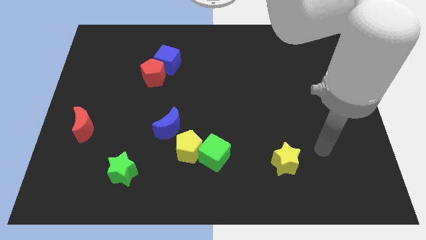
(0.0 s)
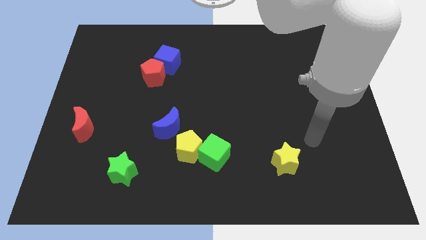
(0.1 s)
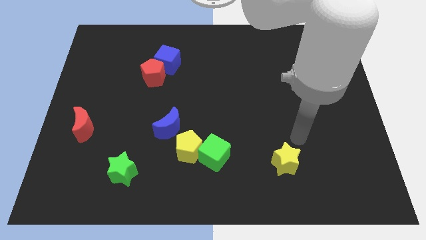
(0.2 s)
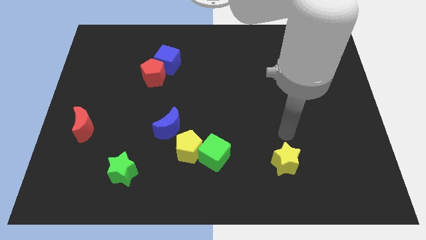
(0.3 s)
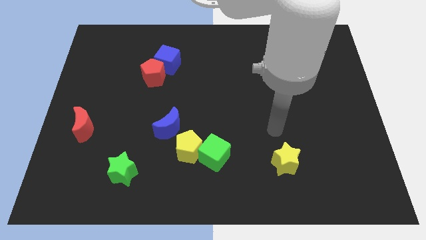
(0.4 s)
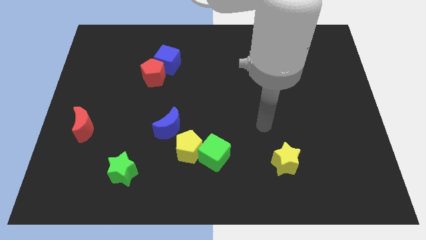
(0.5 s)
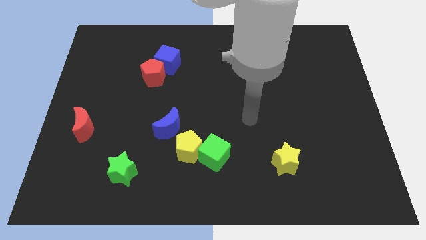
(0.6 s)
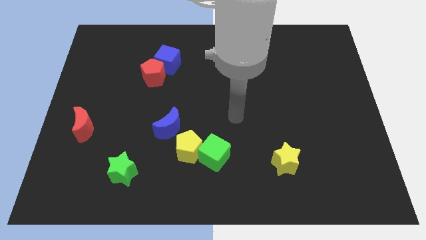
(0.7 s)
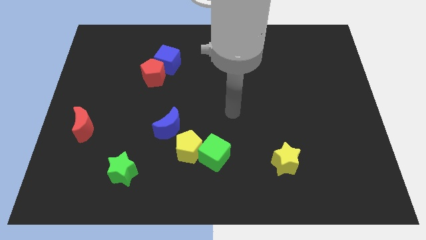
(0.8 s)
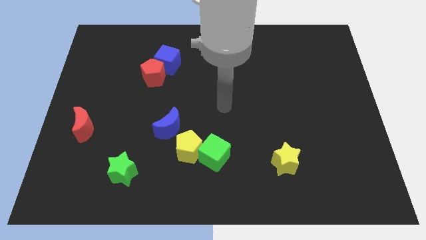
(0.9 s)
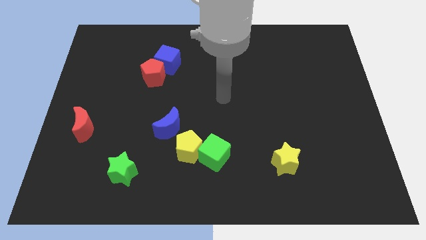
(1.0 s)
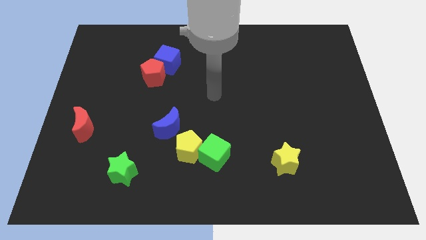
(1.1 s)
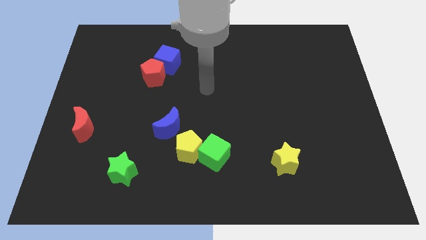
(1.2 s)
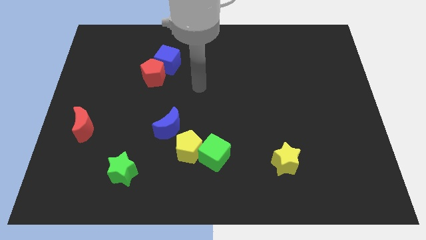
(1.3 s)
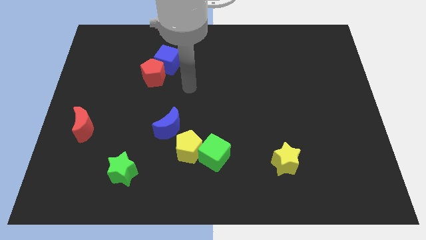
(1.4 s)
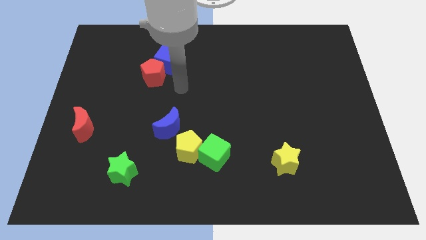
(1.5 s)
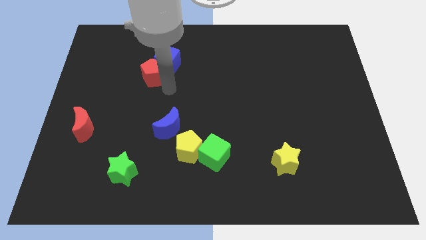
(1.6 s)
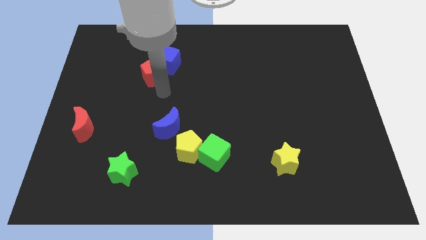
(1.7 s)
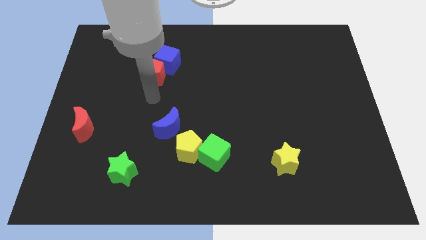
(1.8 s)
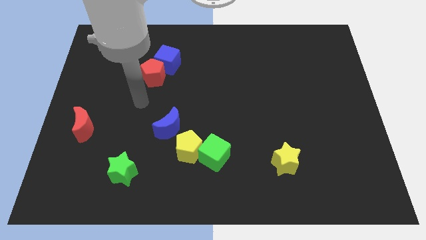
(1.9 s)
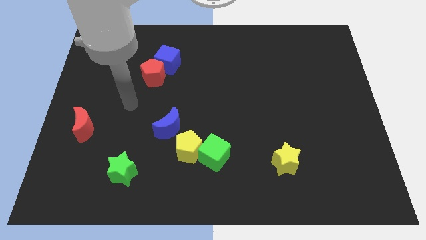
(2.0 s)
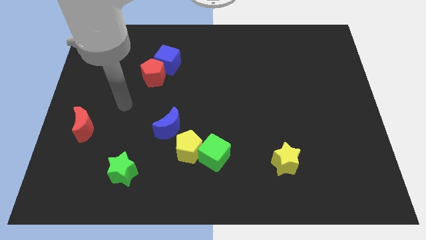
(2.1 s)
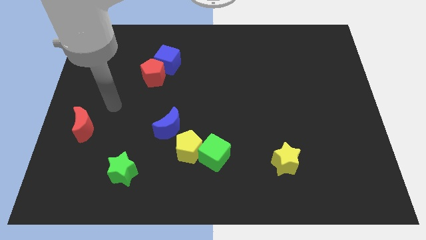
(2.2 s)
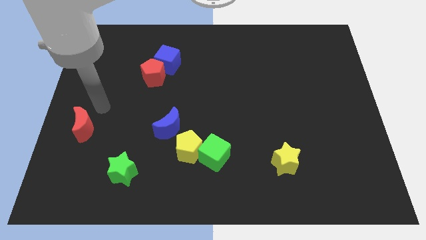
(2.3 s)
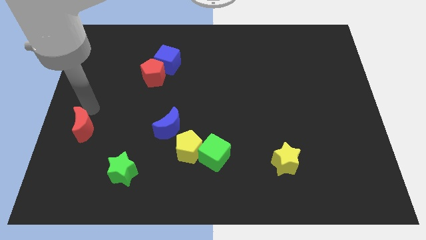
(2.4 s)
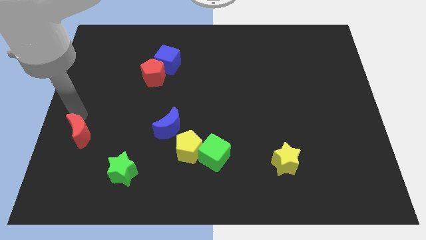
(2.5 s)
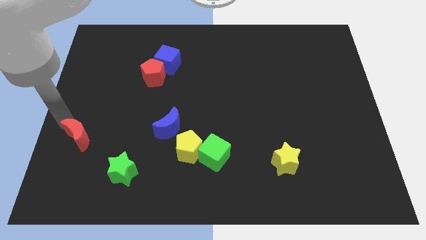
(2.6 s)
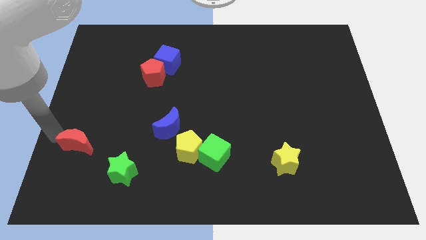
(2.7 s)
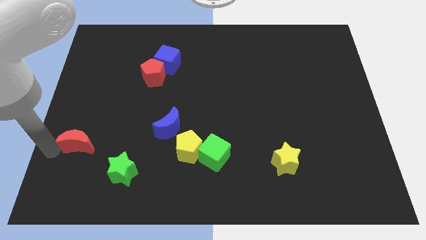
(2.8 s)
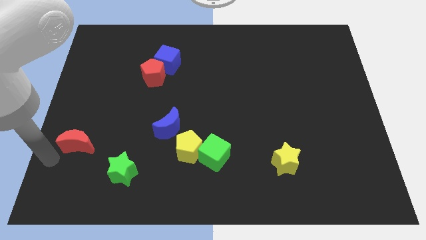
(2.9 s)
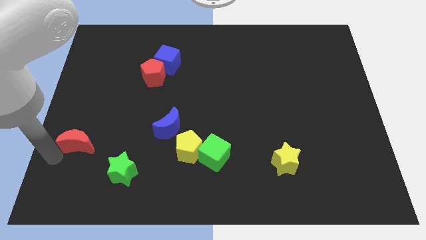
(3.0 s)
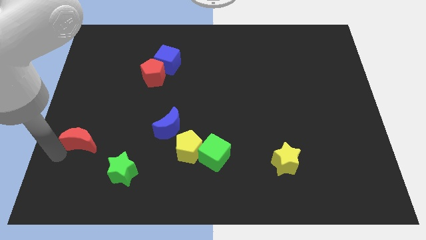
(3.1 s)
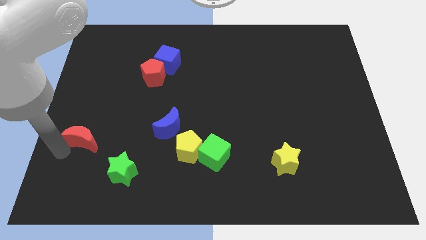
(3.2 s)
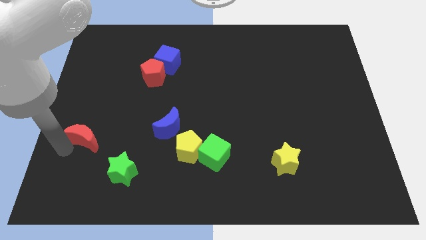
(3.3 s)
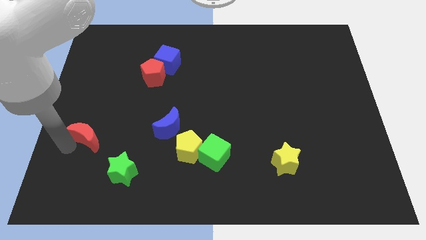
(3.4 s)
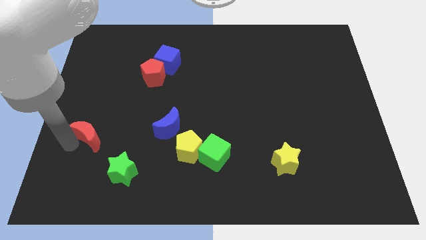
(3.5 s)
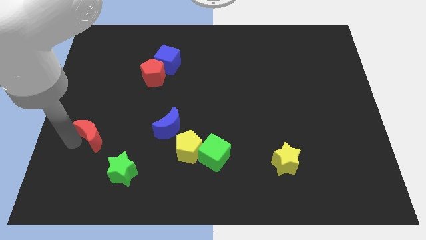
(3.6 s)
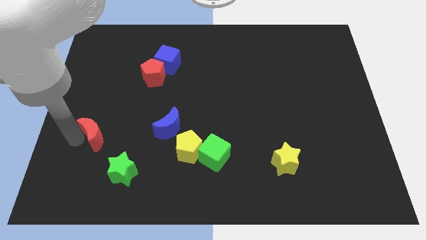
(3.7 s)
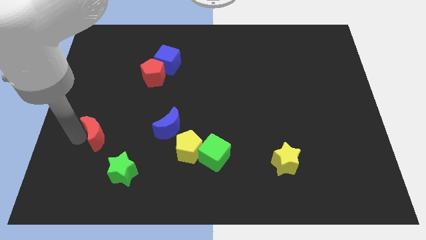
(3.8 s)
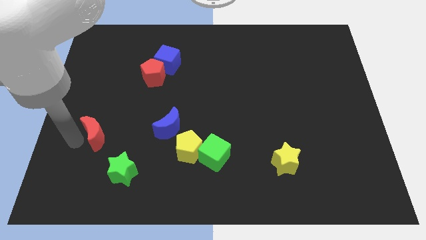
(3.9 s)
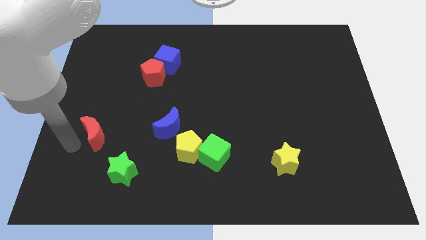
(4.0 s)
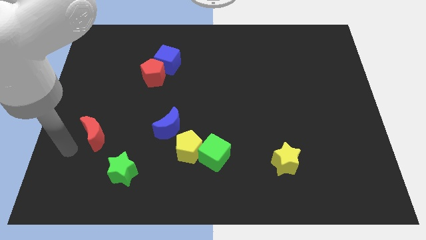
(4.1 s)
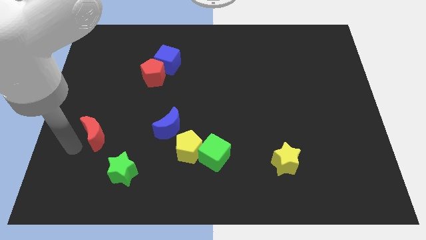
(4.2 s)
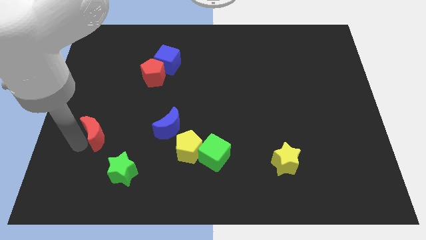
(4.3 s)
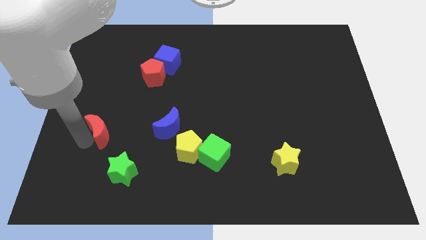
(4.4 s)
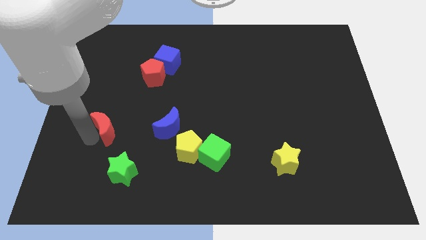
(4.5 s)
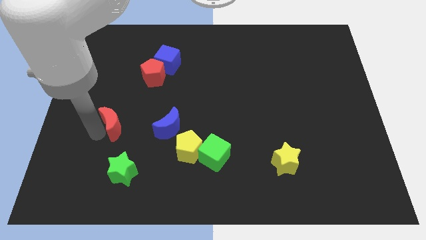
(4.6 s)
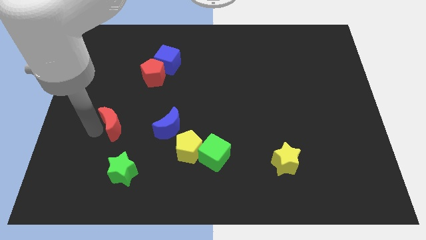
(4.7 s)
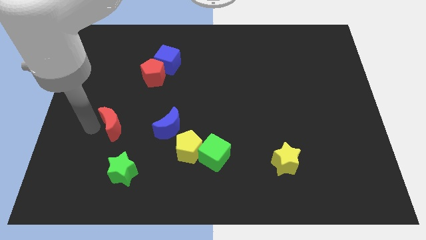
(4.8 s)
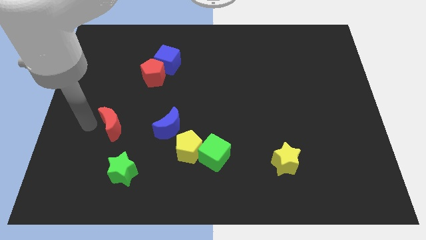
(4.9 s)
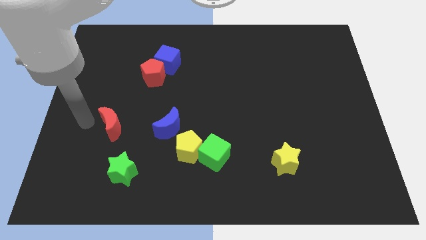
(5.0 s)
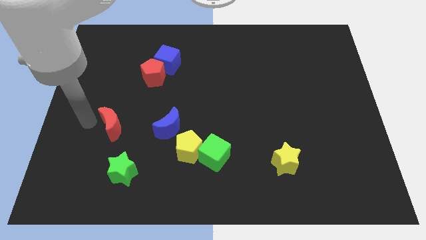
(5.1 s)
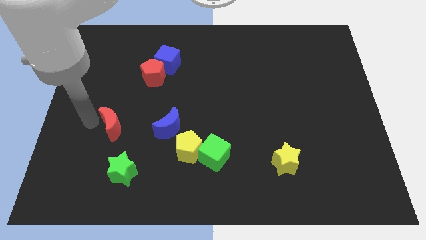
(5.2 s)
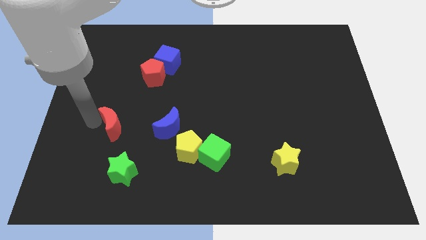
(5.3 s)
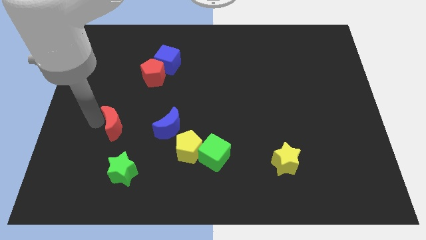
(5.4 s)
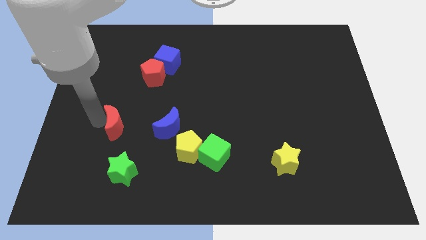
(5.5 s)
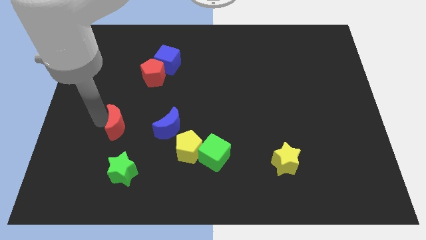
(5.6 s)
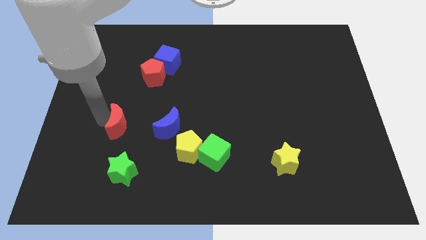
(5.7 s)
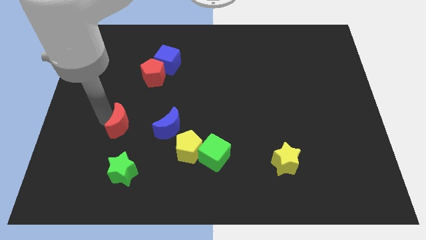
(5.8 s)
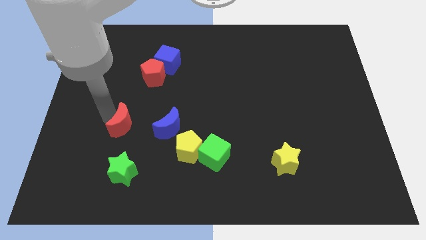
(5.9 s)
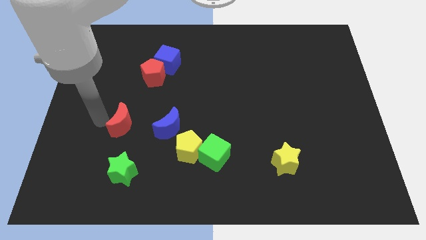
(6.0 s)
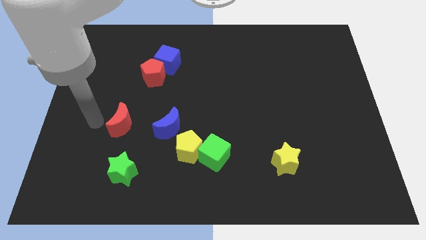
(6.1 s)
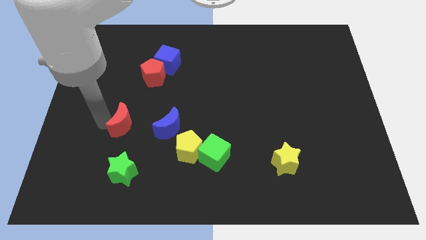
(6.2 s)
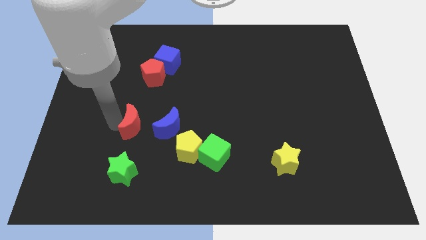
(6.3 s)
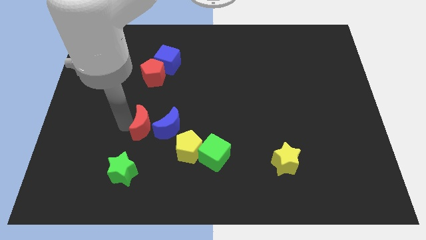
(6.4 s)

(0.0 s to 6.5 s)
push the red moon close to the blue moon

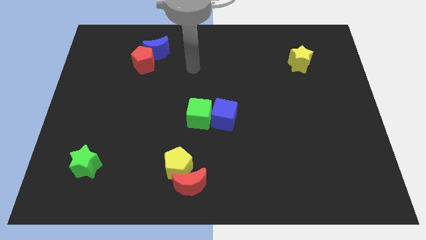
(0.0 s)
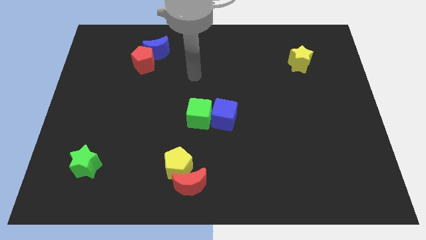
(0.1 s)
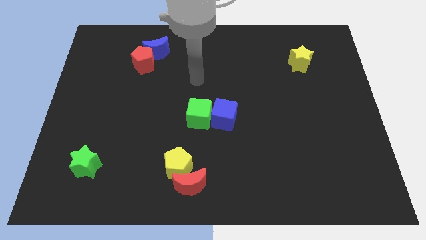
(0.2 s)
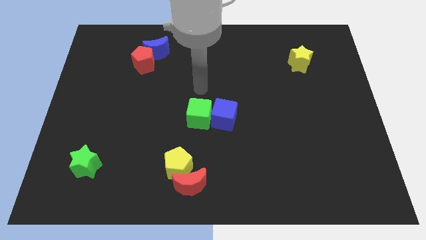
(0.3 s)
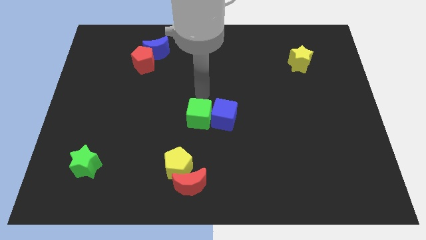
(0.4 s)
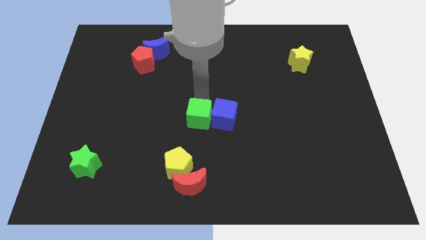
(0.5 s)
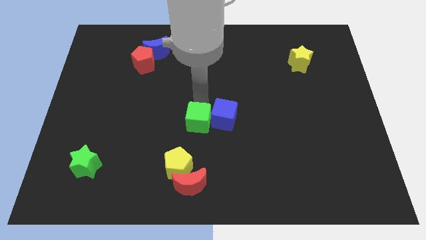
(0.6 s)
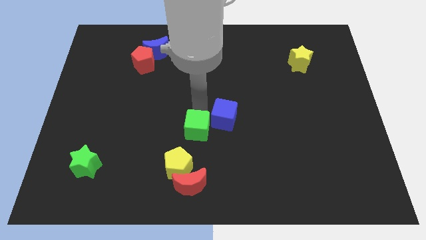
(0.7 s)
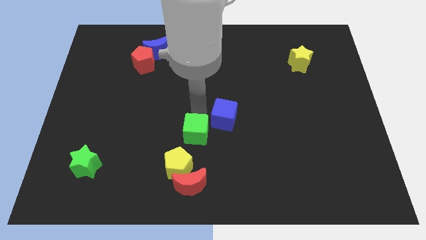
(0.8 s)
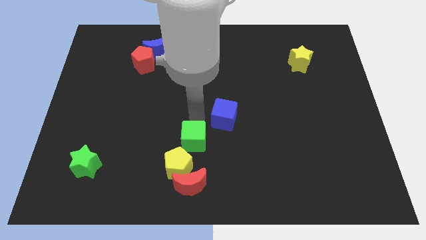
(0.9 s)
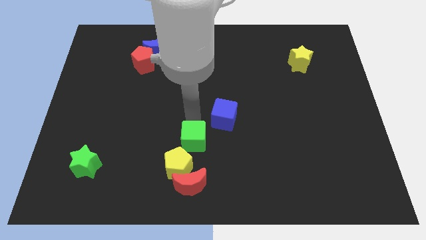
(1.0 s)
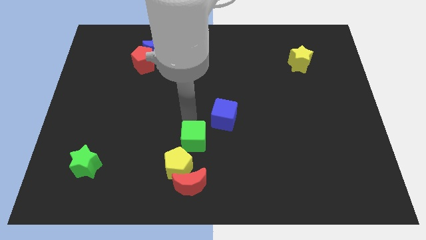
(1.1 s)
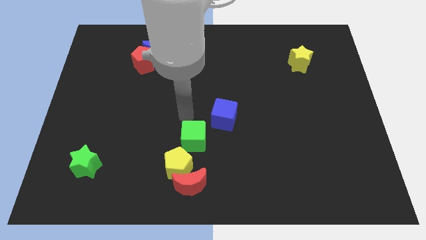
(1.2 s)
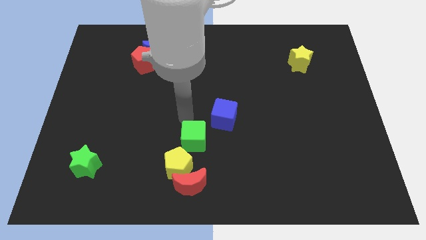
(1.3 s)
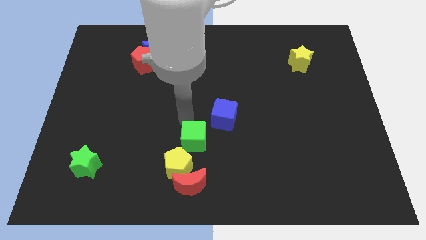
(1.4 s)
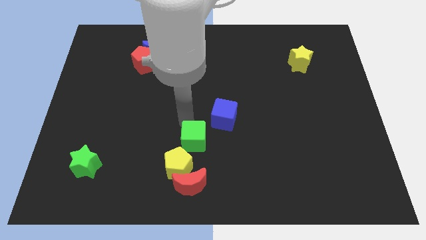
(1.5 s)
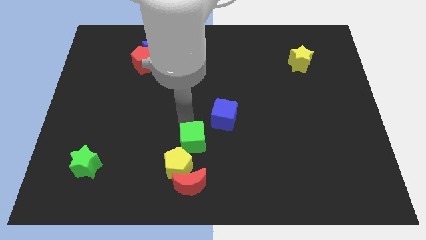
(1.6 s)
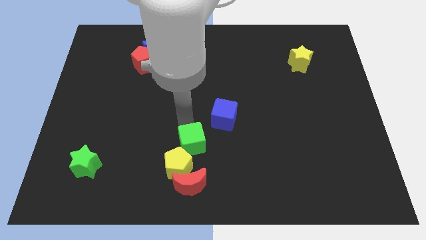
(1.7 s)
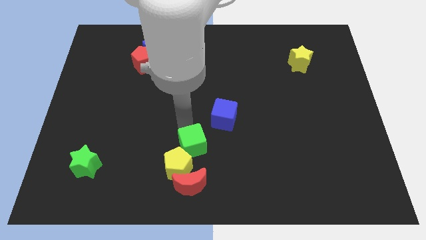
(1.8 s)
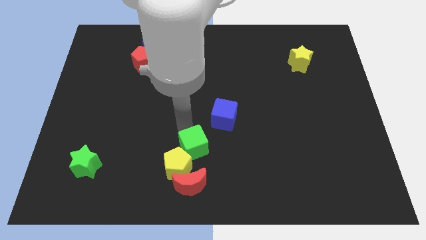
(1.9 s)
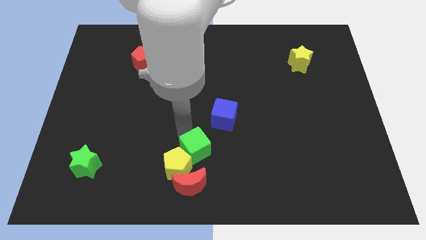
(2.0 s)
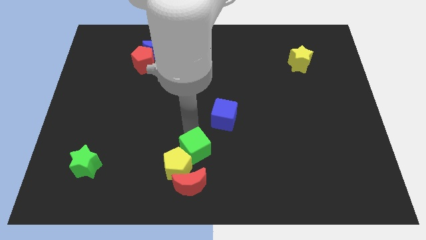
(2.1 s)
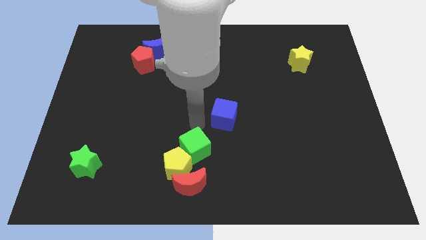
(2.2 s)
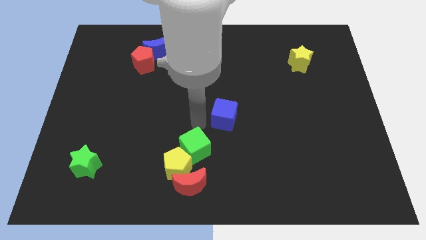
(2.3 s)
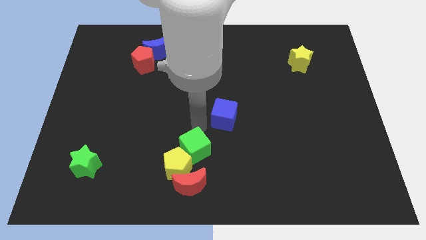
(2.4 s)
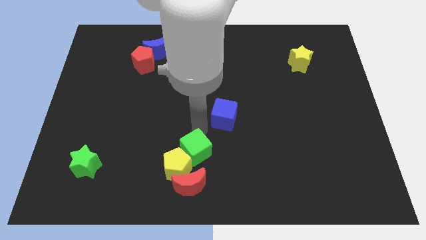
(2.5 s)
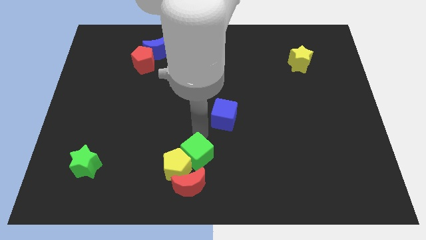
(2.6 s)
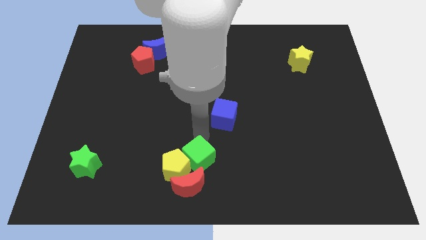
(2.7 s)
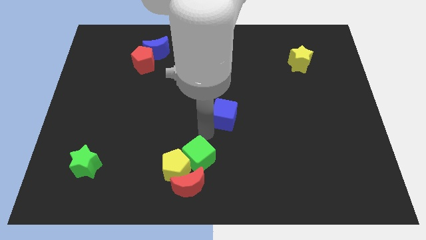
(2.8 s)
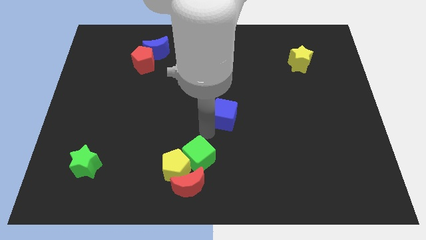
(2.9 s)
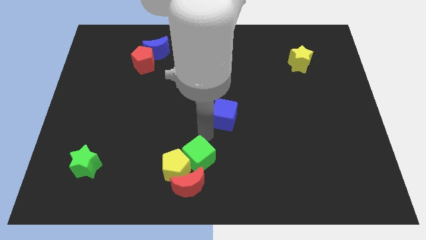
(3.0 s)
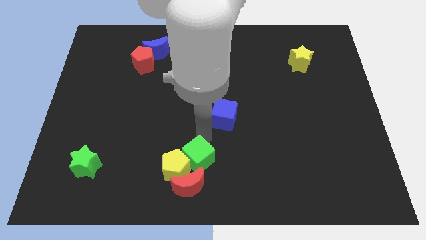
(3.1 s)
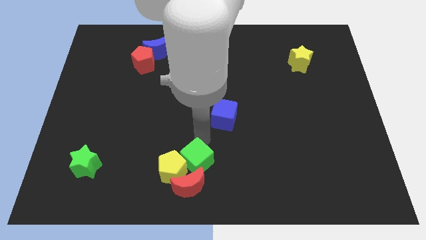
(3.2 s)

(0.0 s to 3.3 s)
put the green cube to the red moon
